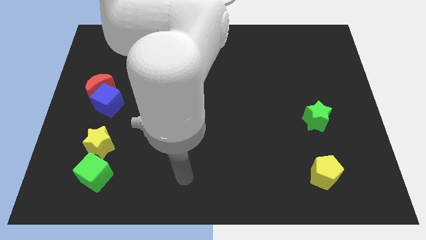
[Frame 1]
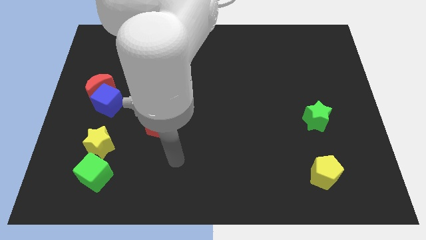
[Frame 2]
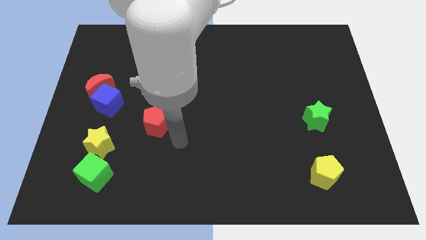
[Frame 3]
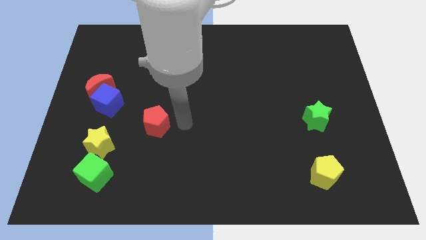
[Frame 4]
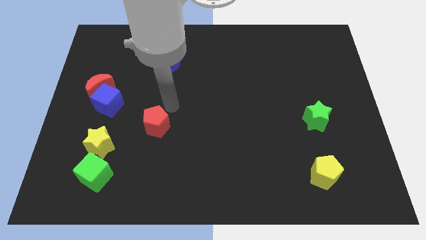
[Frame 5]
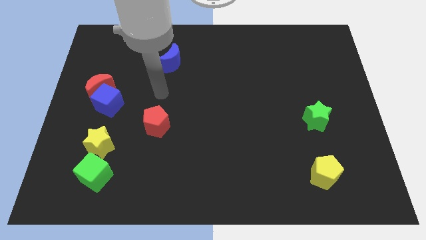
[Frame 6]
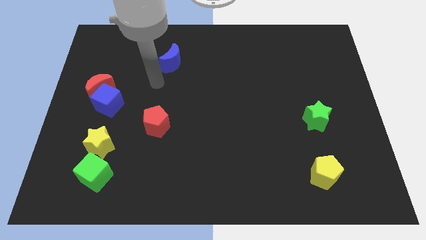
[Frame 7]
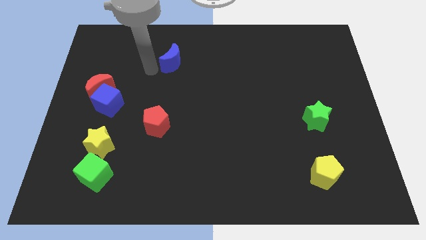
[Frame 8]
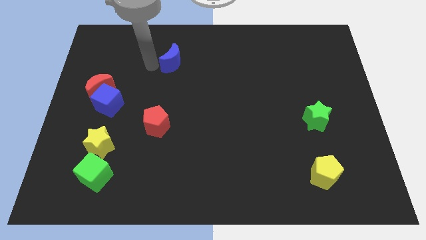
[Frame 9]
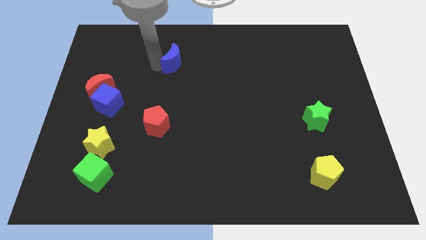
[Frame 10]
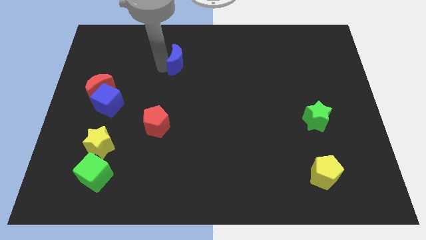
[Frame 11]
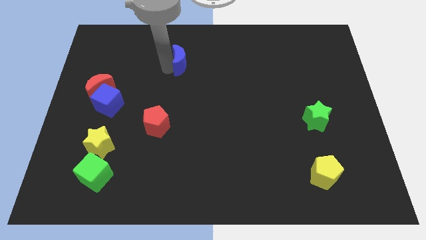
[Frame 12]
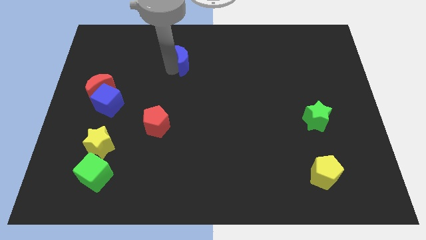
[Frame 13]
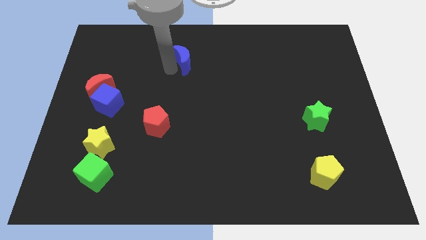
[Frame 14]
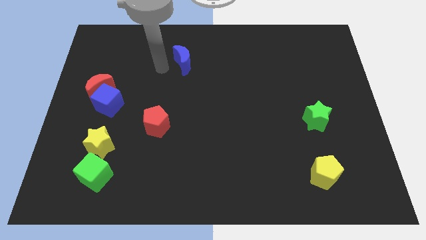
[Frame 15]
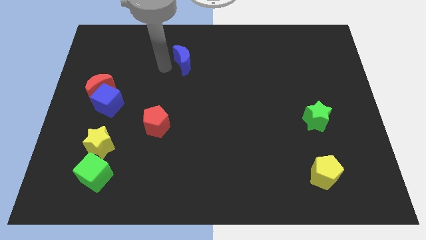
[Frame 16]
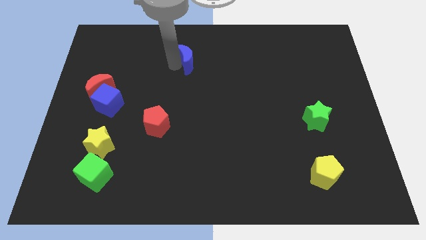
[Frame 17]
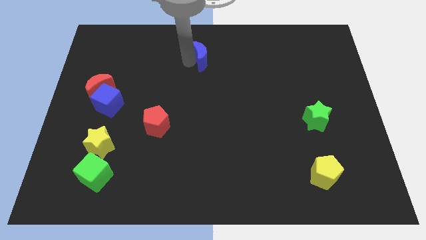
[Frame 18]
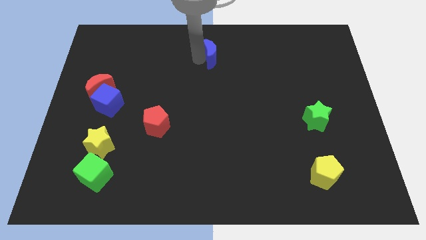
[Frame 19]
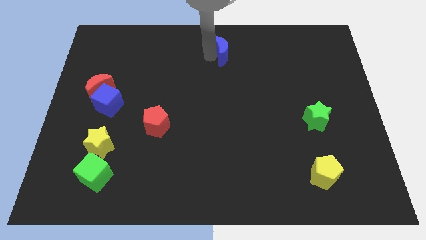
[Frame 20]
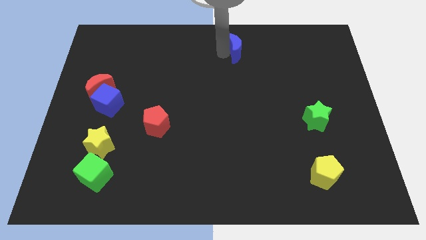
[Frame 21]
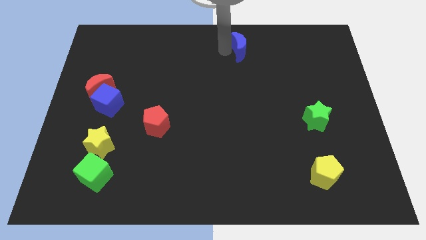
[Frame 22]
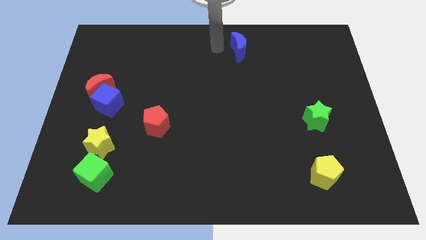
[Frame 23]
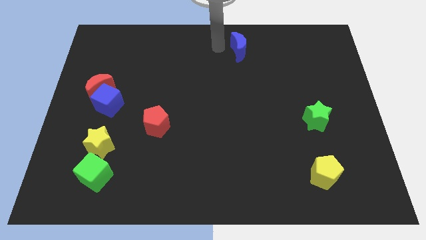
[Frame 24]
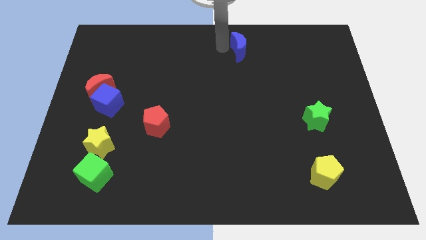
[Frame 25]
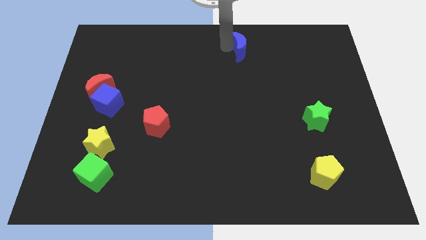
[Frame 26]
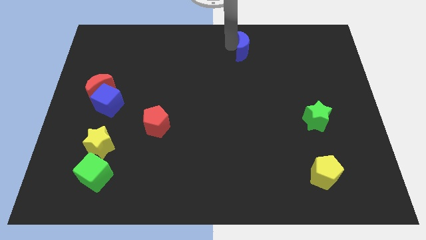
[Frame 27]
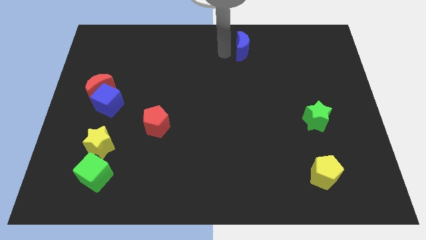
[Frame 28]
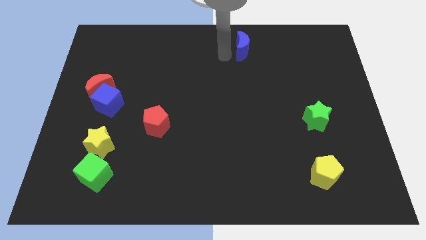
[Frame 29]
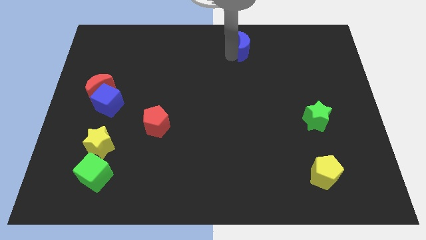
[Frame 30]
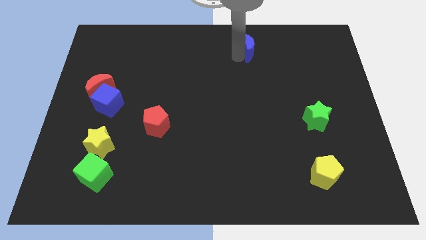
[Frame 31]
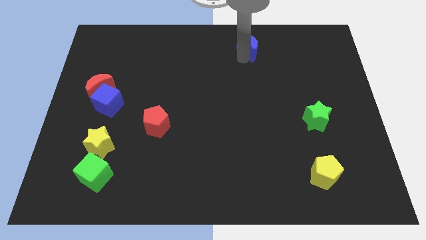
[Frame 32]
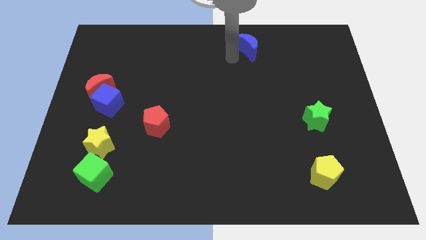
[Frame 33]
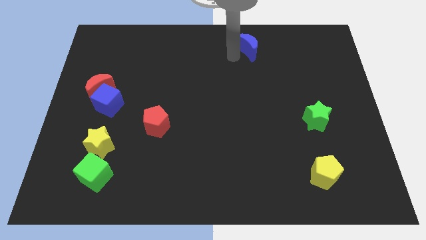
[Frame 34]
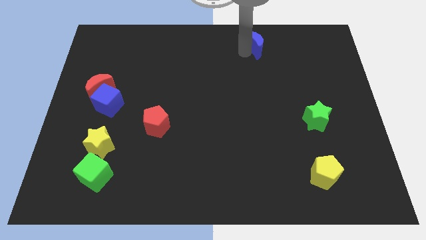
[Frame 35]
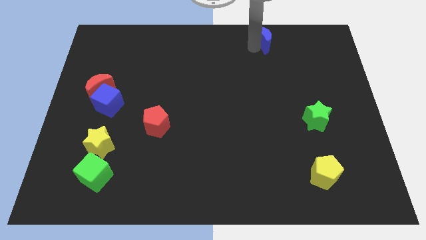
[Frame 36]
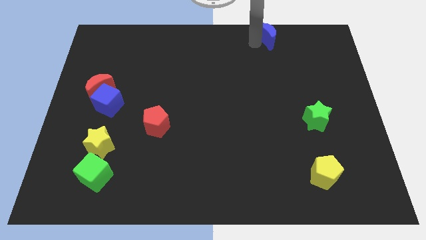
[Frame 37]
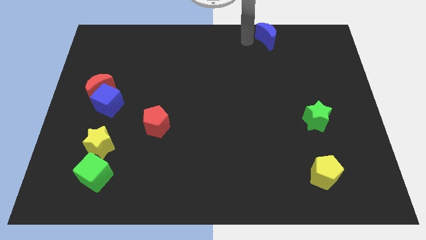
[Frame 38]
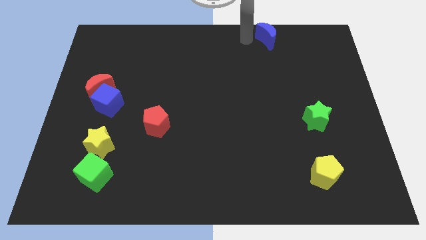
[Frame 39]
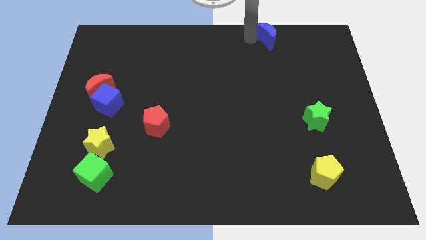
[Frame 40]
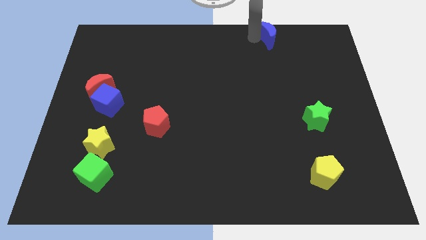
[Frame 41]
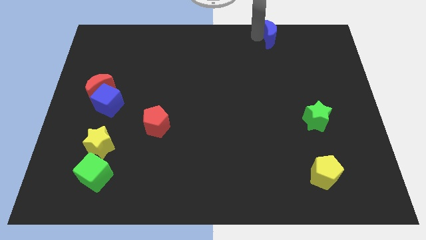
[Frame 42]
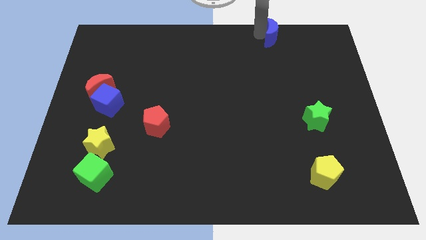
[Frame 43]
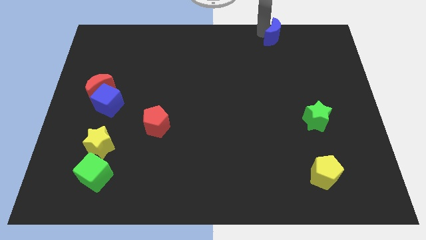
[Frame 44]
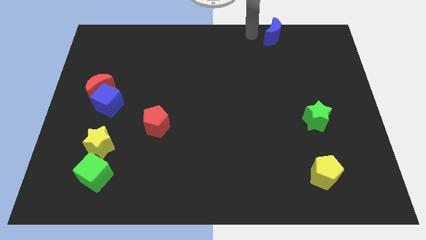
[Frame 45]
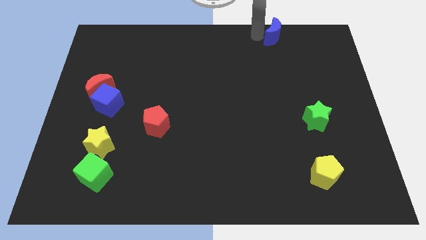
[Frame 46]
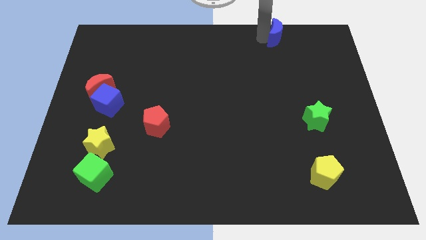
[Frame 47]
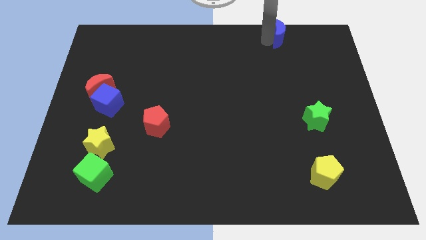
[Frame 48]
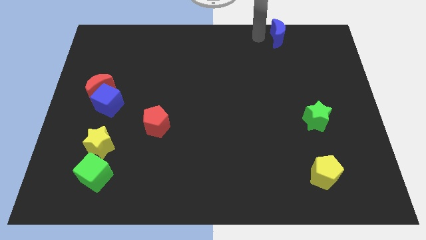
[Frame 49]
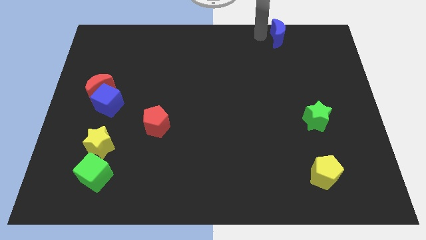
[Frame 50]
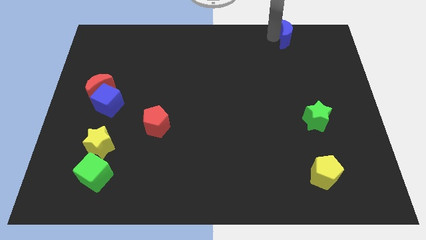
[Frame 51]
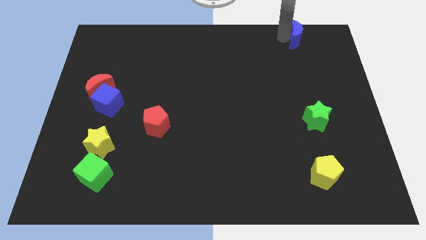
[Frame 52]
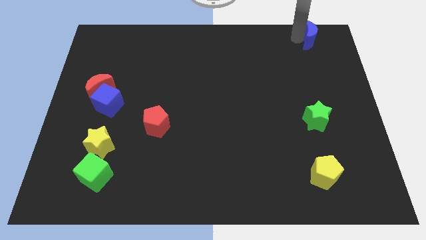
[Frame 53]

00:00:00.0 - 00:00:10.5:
push the blue moon to the top right
